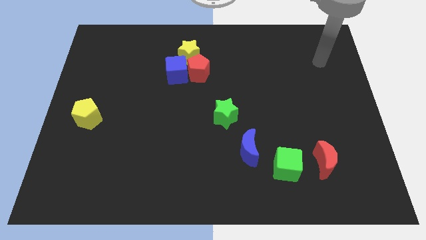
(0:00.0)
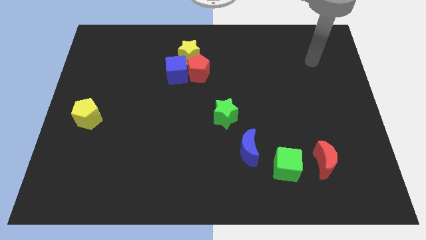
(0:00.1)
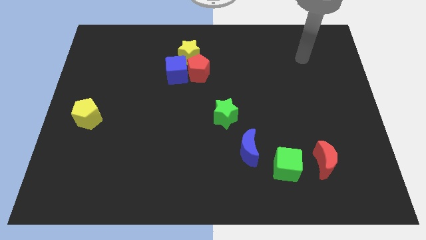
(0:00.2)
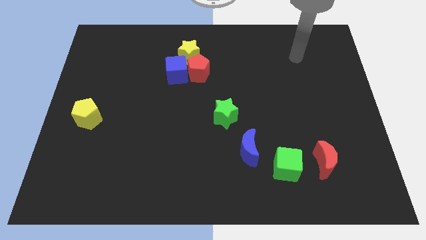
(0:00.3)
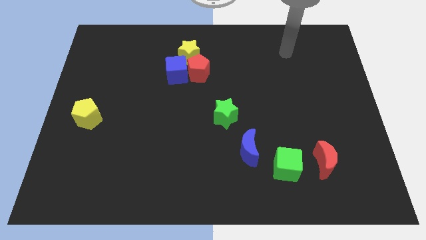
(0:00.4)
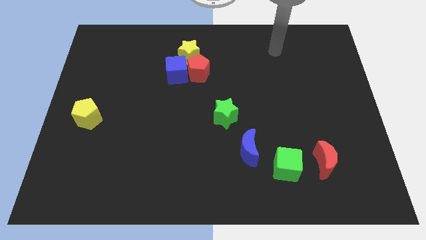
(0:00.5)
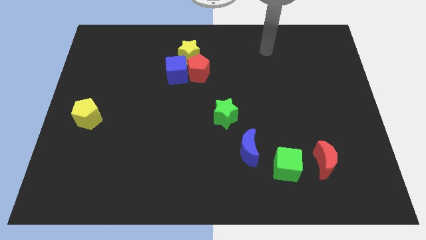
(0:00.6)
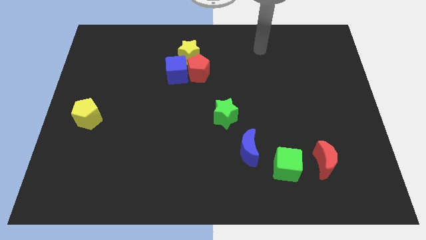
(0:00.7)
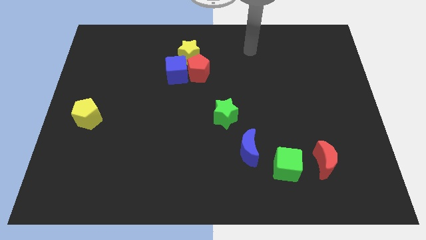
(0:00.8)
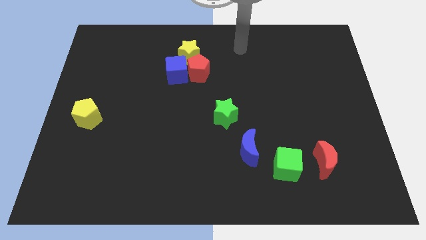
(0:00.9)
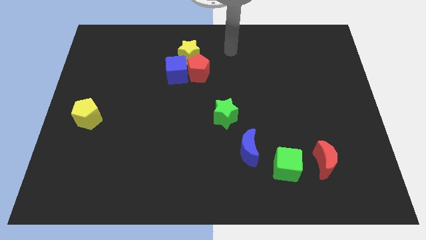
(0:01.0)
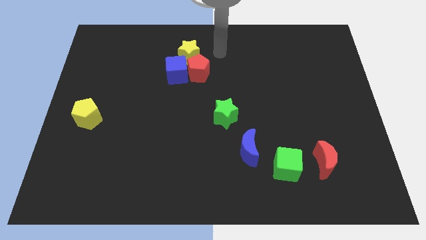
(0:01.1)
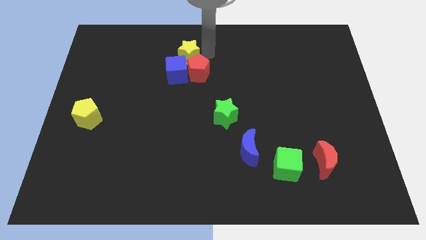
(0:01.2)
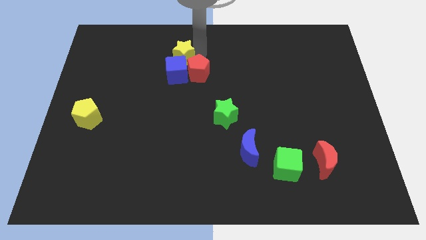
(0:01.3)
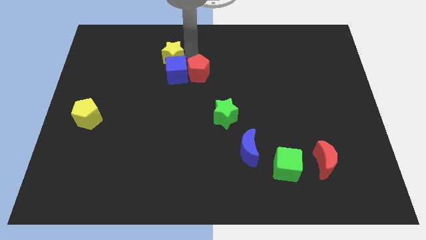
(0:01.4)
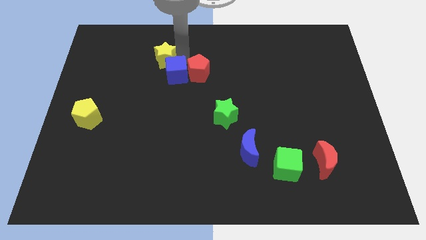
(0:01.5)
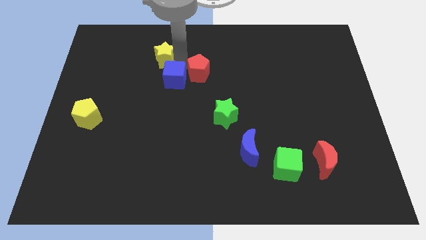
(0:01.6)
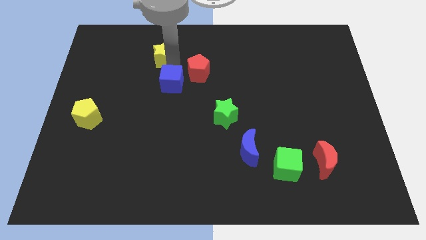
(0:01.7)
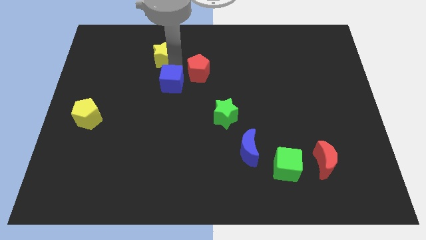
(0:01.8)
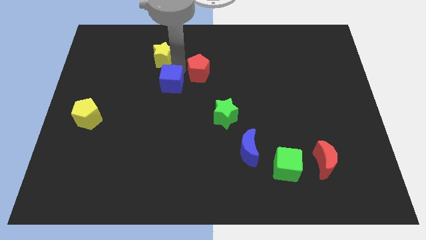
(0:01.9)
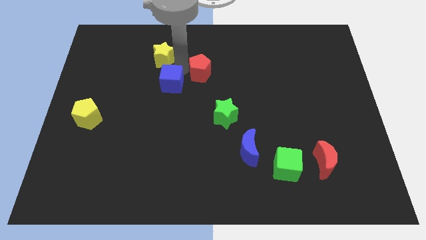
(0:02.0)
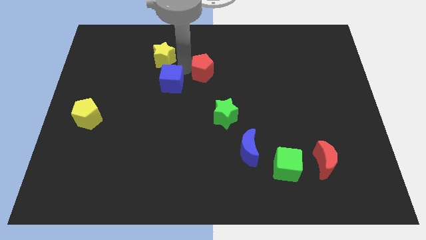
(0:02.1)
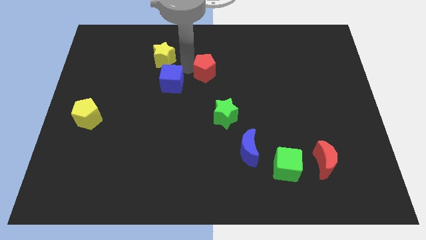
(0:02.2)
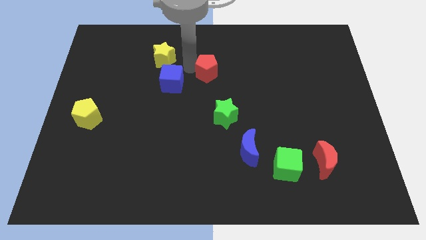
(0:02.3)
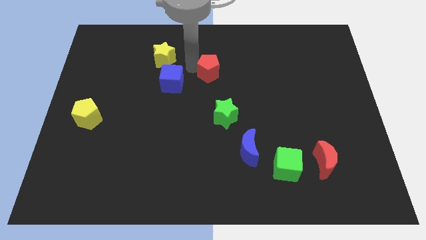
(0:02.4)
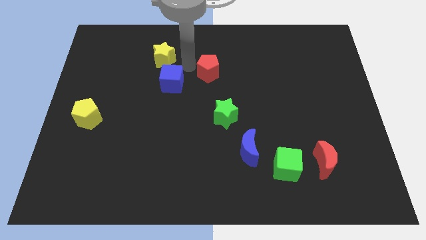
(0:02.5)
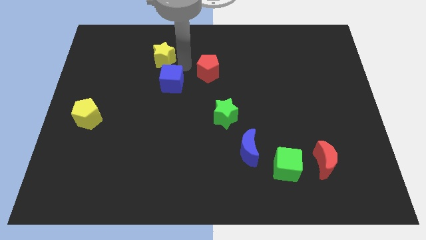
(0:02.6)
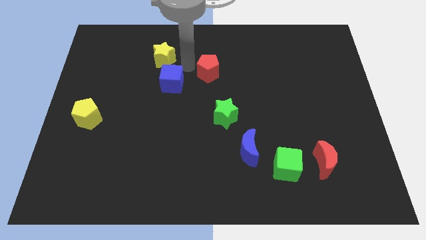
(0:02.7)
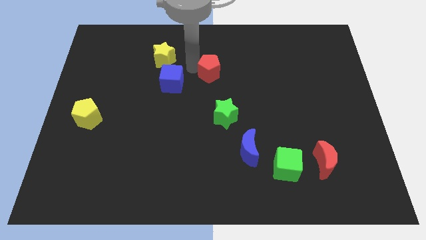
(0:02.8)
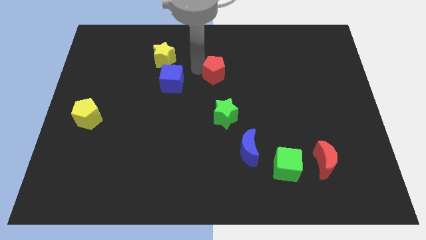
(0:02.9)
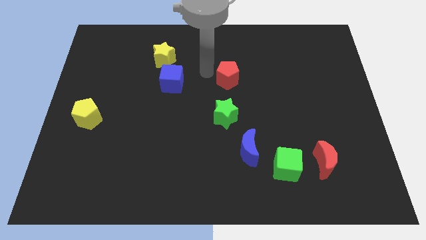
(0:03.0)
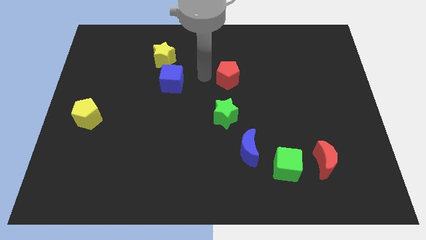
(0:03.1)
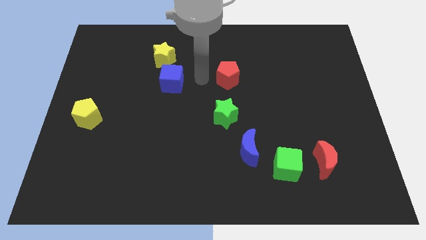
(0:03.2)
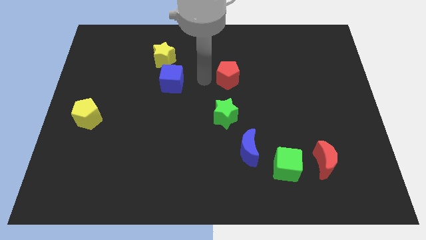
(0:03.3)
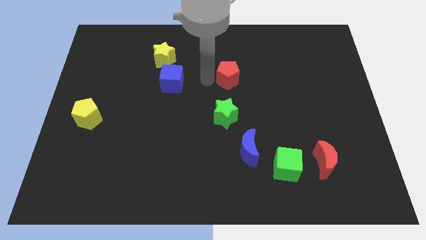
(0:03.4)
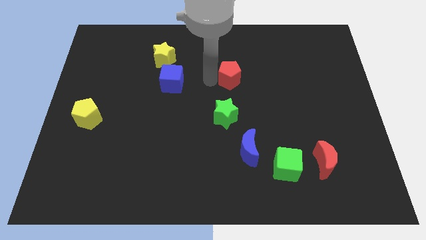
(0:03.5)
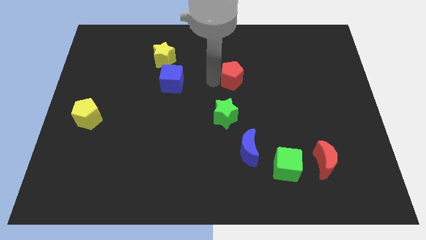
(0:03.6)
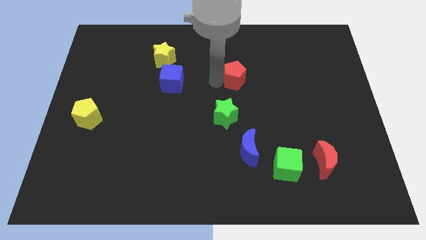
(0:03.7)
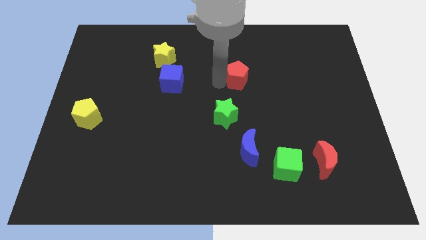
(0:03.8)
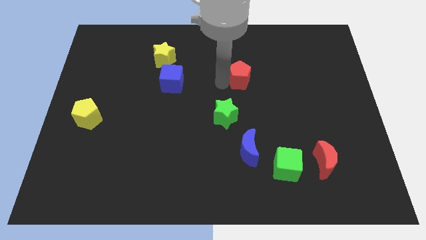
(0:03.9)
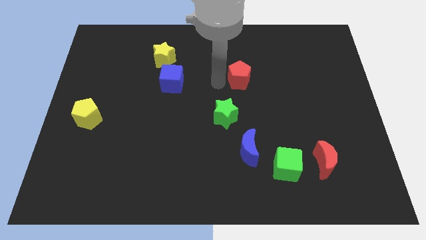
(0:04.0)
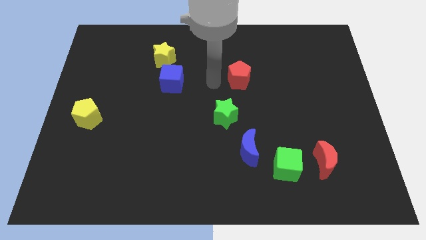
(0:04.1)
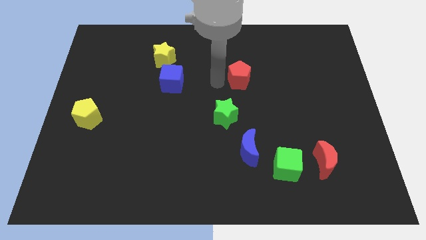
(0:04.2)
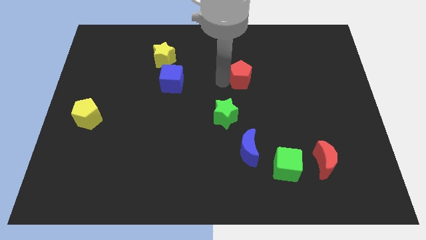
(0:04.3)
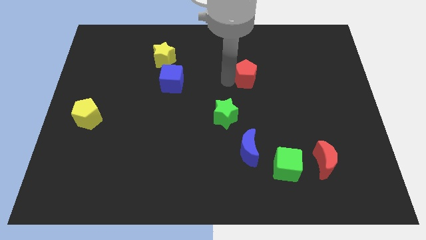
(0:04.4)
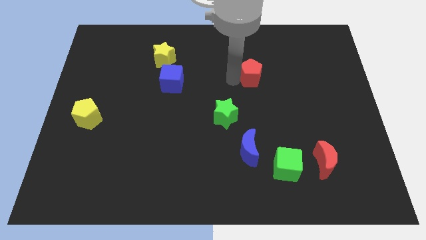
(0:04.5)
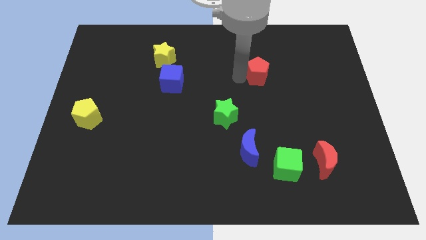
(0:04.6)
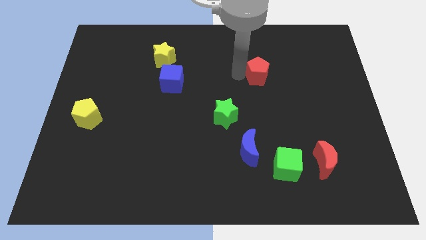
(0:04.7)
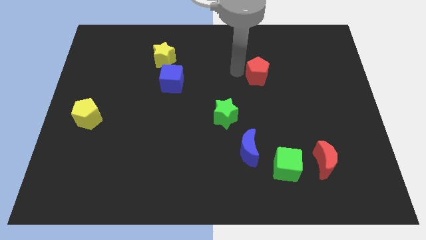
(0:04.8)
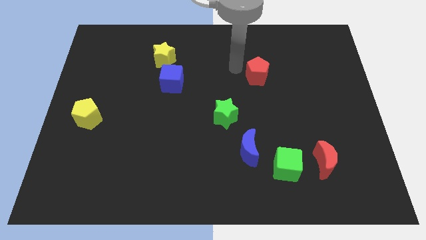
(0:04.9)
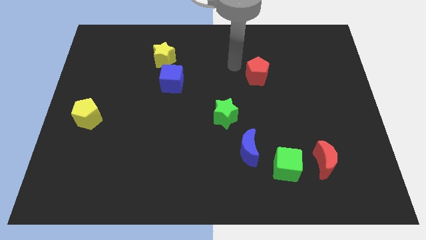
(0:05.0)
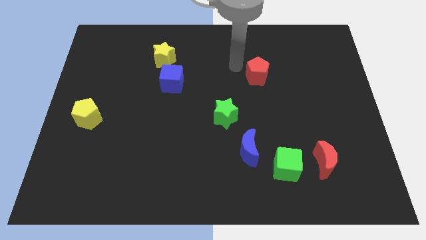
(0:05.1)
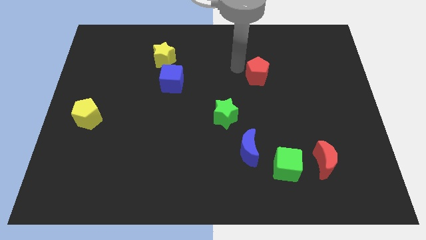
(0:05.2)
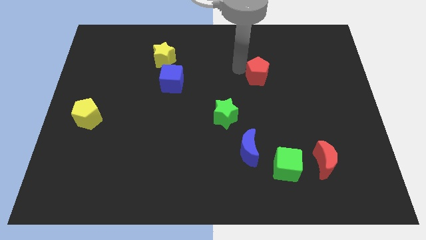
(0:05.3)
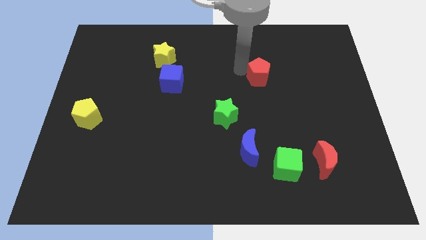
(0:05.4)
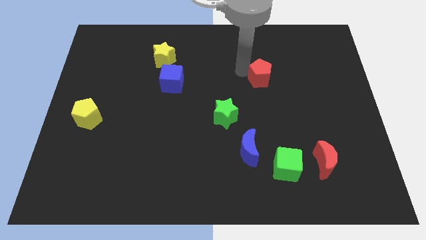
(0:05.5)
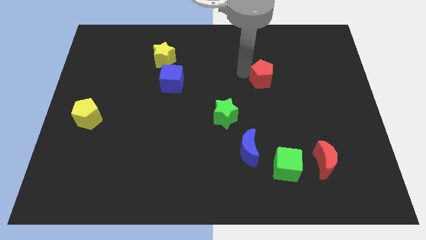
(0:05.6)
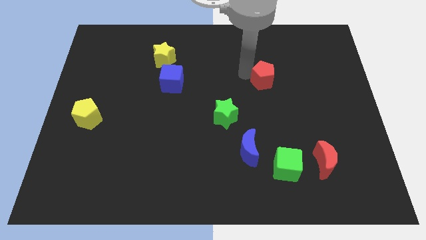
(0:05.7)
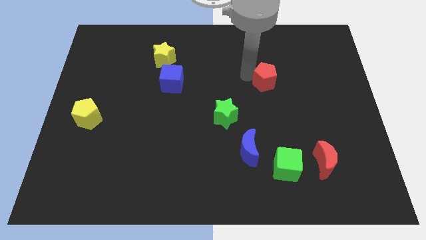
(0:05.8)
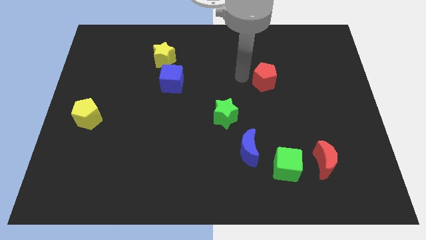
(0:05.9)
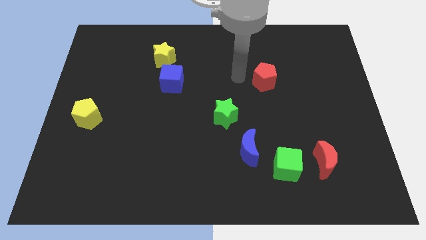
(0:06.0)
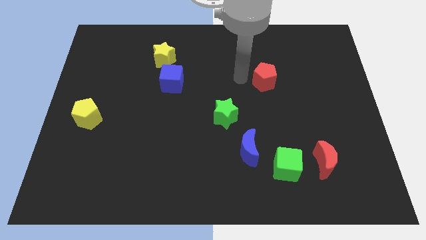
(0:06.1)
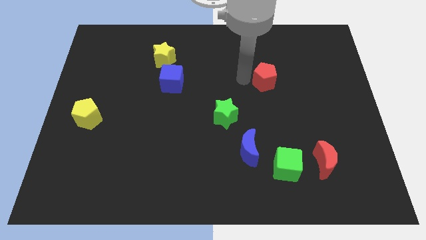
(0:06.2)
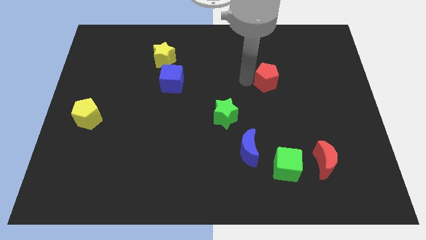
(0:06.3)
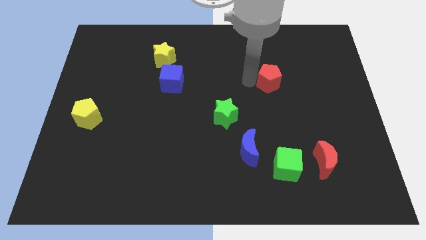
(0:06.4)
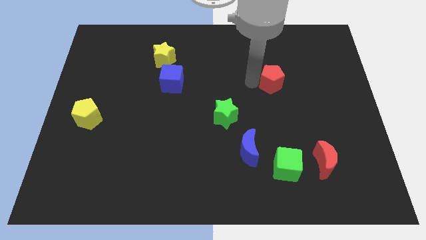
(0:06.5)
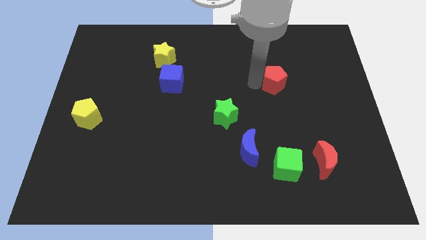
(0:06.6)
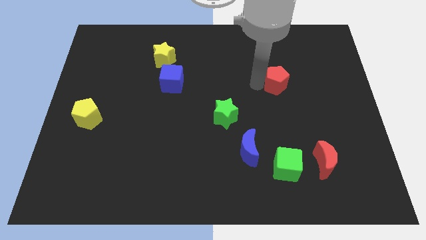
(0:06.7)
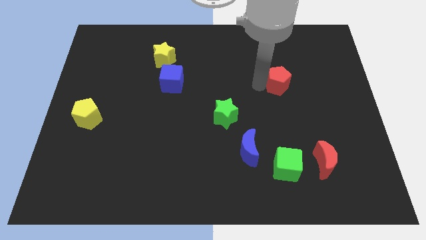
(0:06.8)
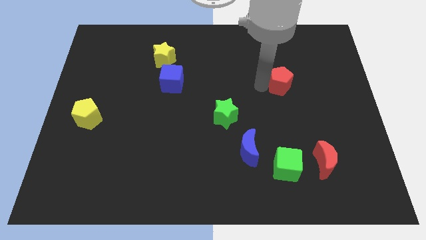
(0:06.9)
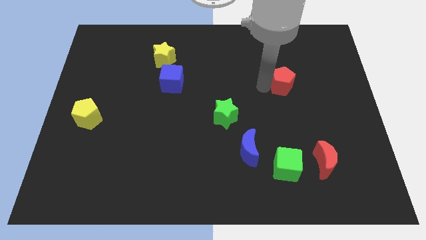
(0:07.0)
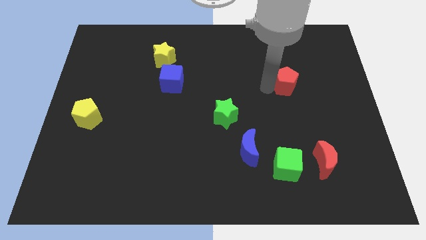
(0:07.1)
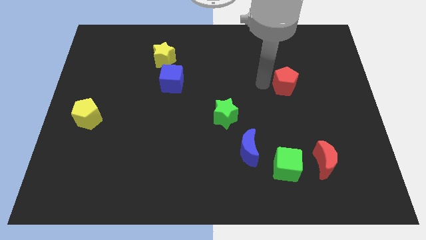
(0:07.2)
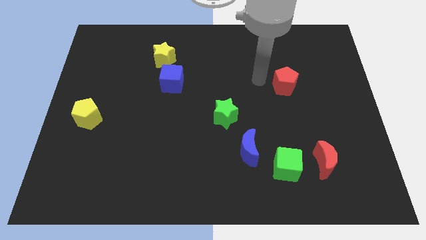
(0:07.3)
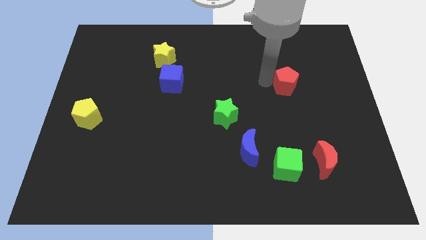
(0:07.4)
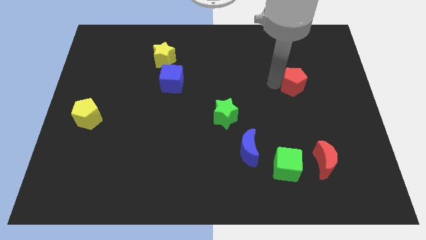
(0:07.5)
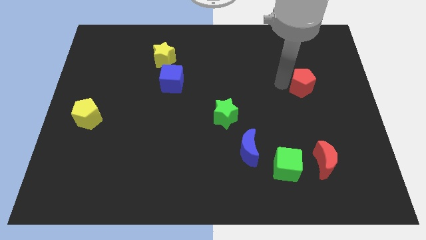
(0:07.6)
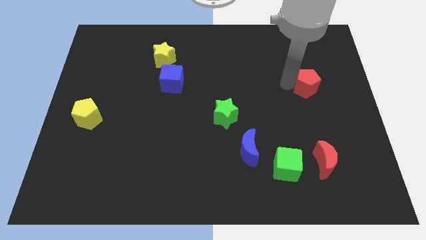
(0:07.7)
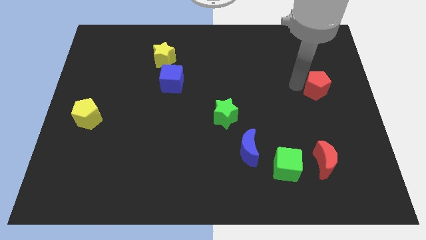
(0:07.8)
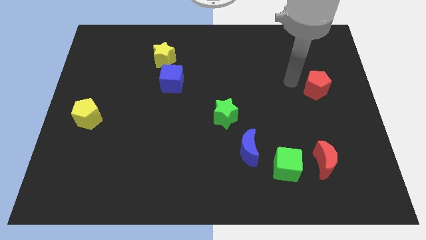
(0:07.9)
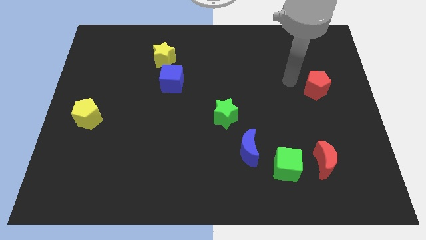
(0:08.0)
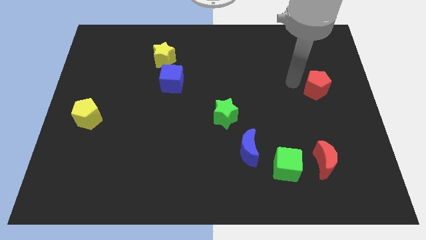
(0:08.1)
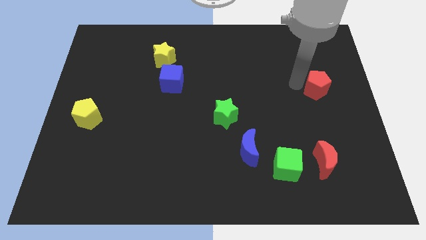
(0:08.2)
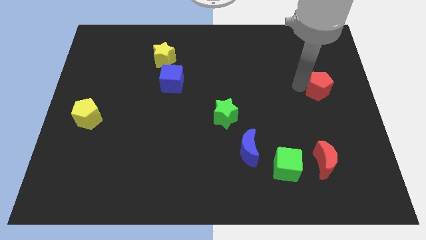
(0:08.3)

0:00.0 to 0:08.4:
slide the red pentagon to the right side of the board
